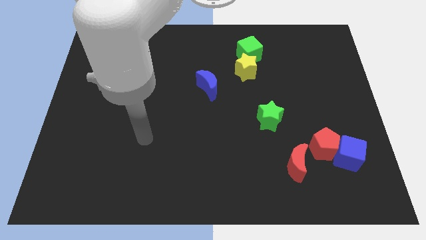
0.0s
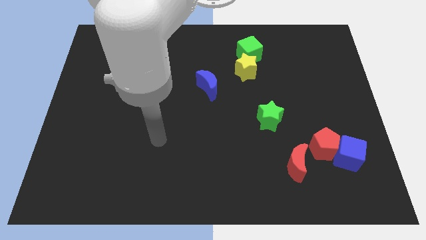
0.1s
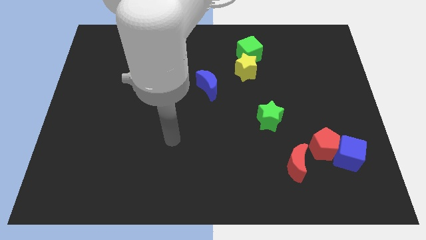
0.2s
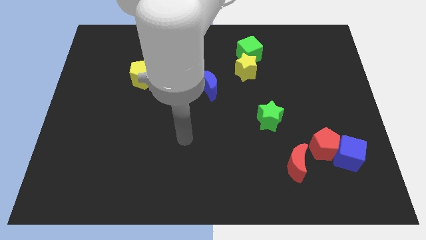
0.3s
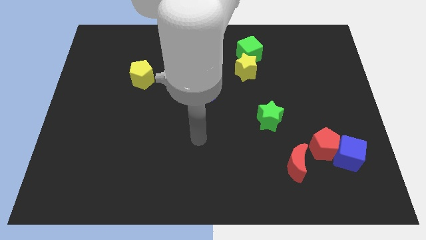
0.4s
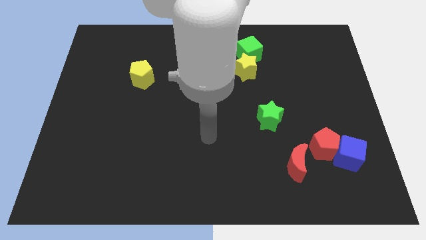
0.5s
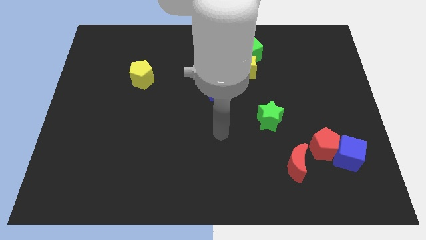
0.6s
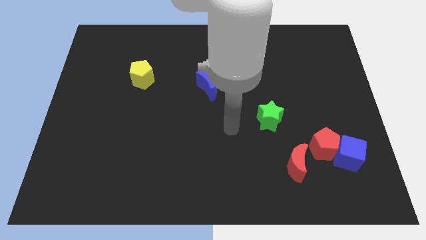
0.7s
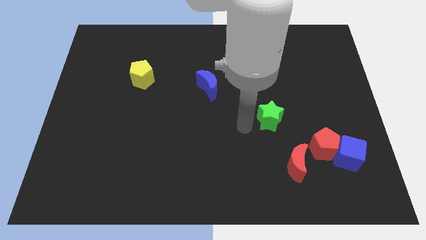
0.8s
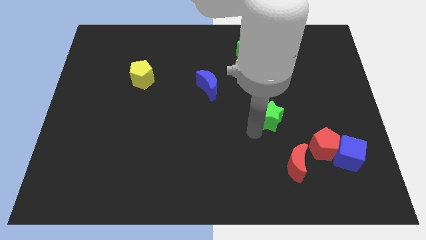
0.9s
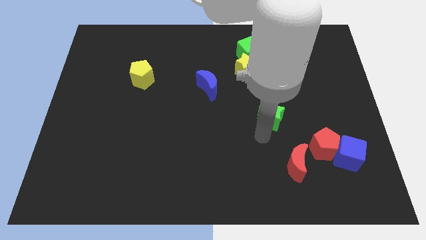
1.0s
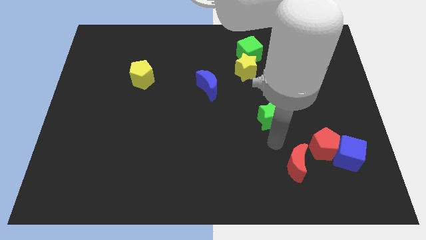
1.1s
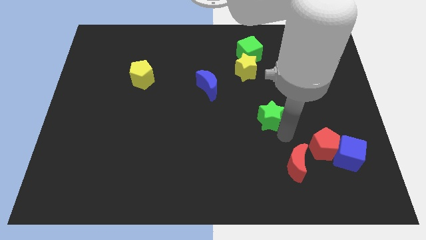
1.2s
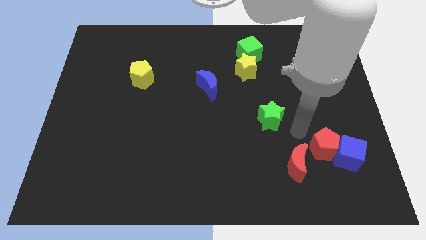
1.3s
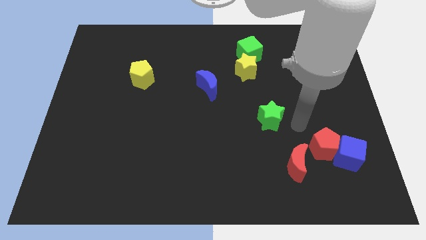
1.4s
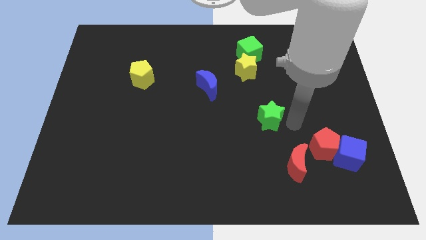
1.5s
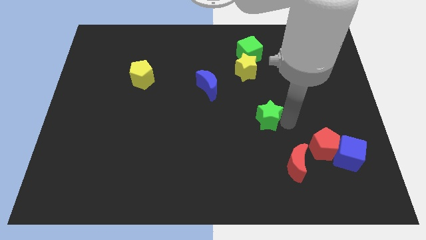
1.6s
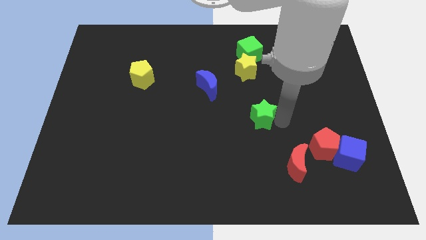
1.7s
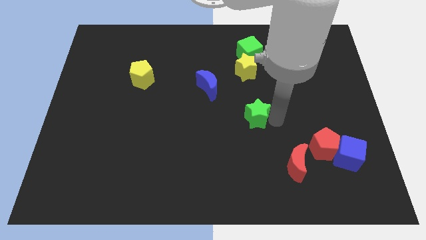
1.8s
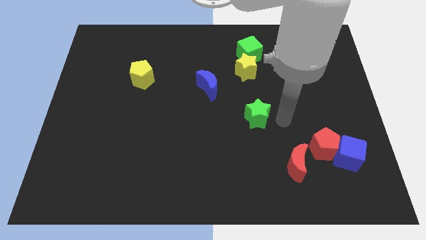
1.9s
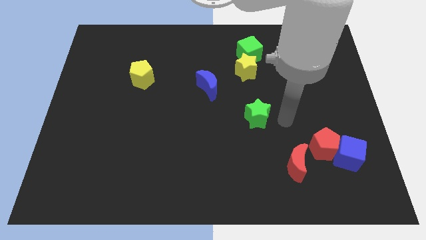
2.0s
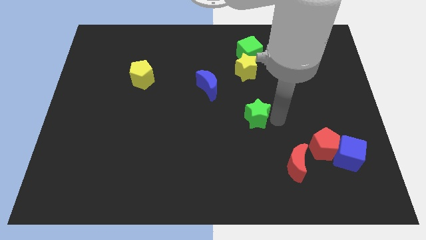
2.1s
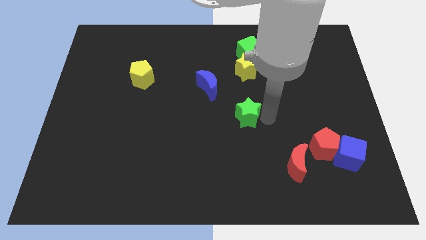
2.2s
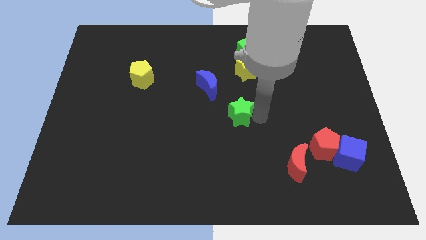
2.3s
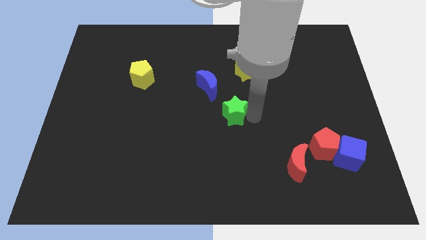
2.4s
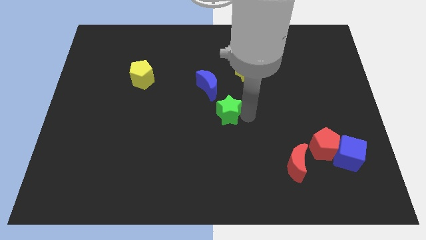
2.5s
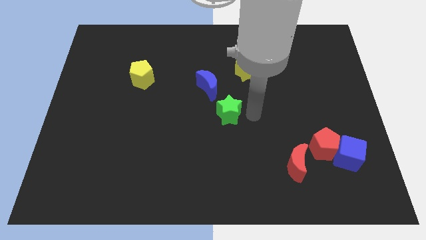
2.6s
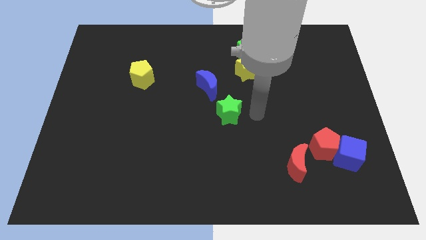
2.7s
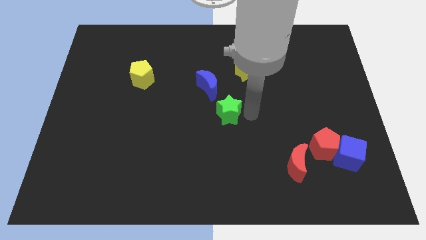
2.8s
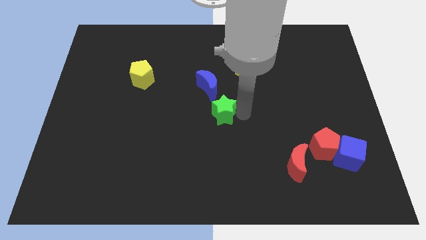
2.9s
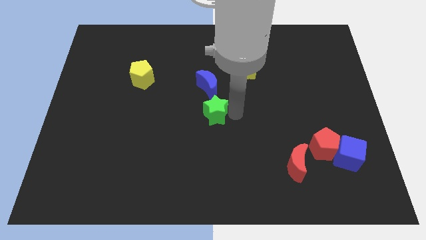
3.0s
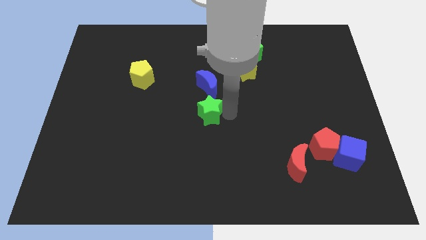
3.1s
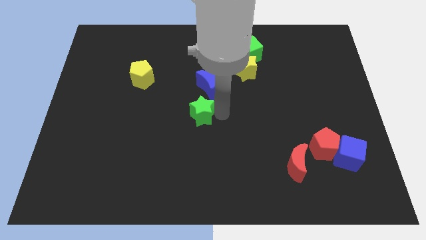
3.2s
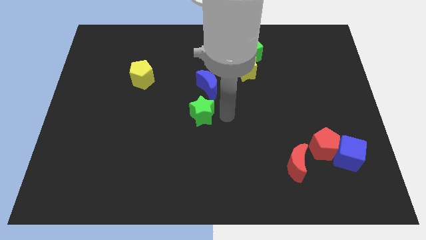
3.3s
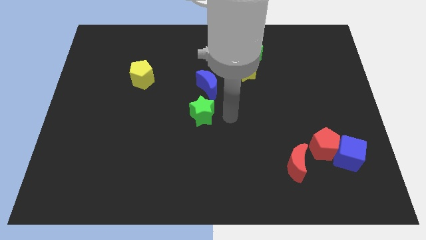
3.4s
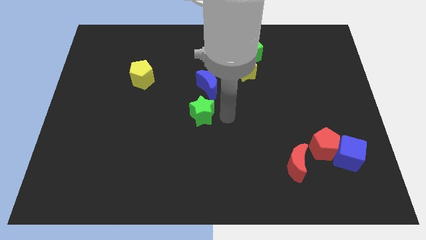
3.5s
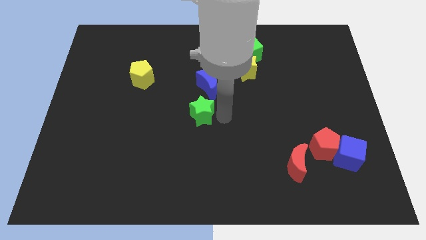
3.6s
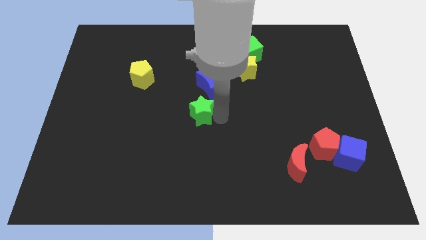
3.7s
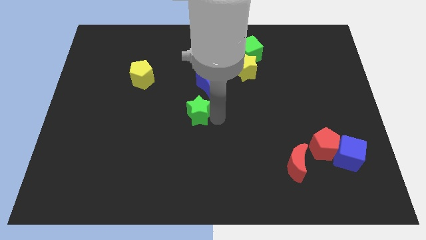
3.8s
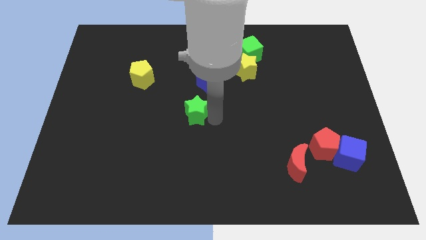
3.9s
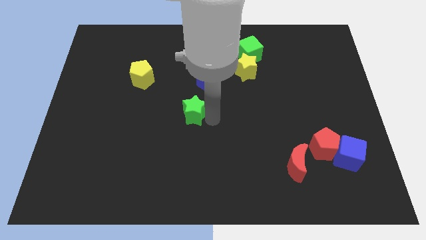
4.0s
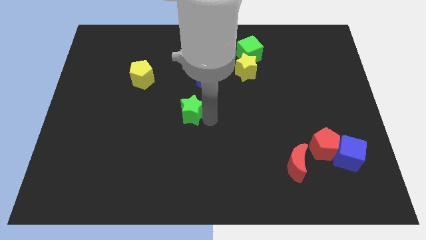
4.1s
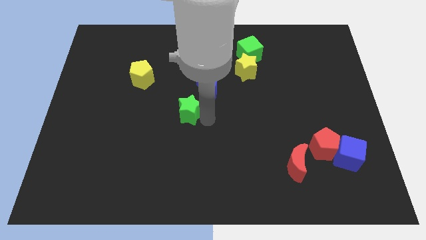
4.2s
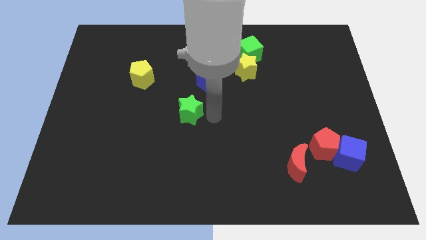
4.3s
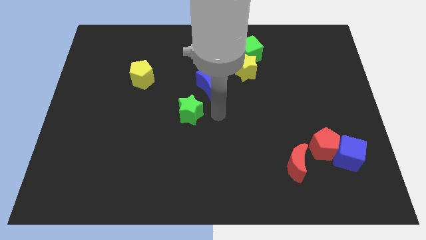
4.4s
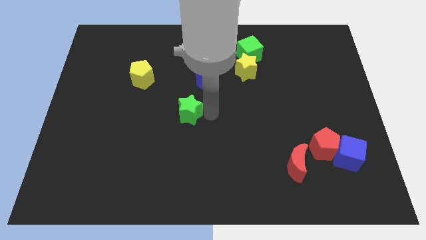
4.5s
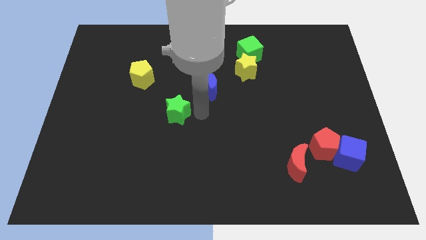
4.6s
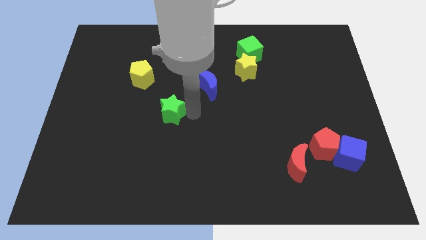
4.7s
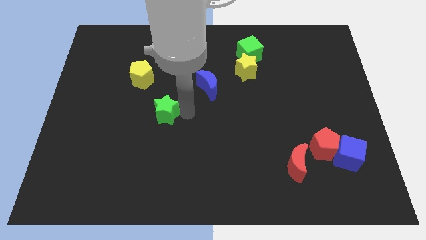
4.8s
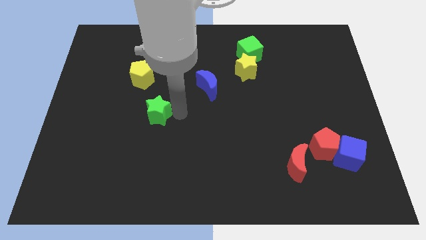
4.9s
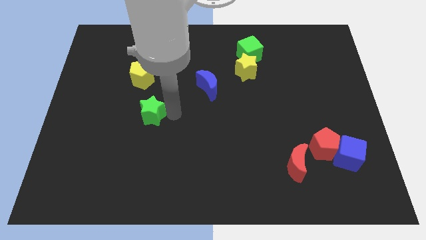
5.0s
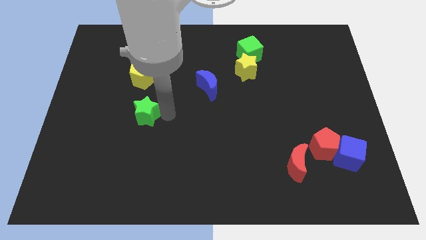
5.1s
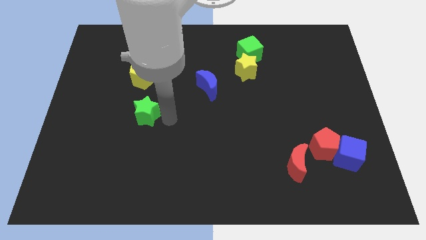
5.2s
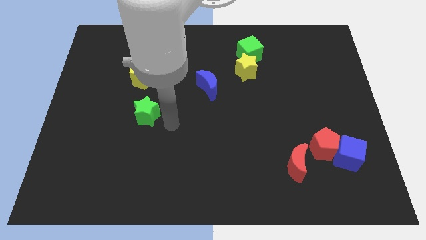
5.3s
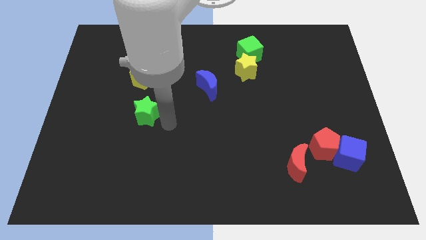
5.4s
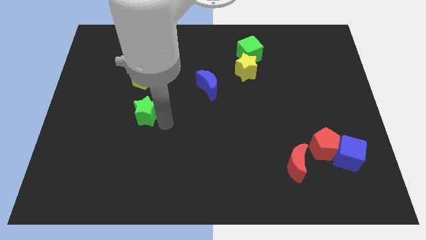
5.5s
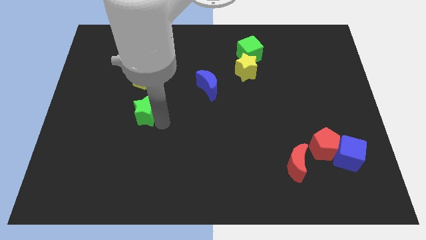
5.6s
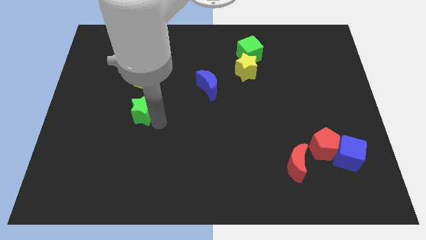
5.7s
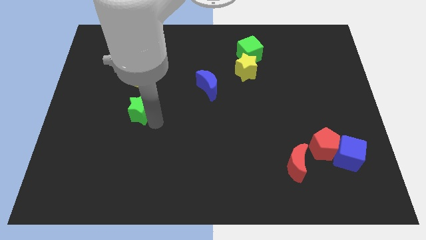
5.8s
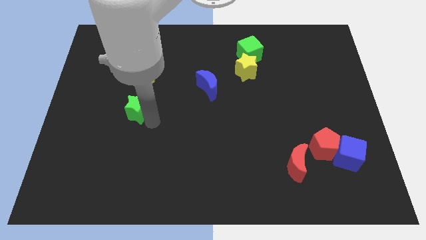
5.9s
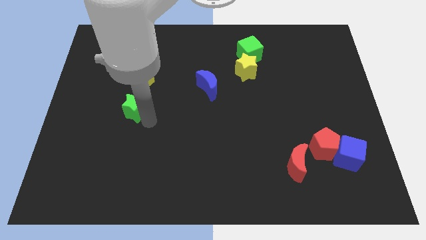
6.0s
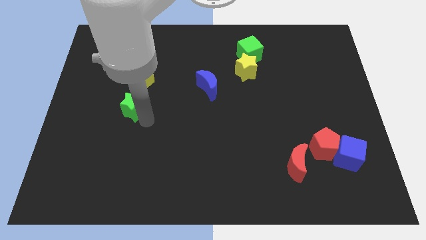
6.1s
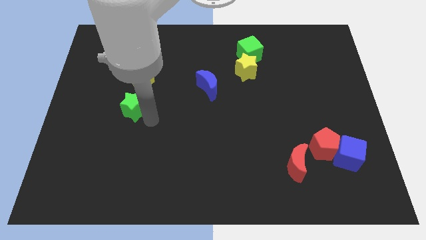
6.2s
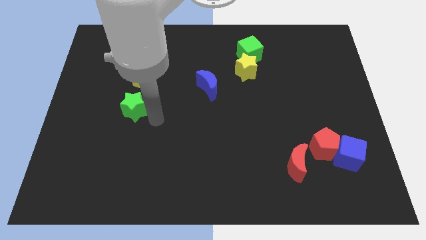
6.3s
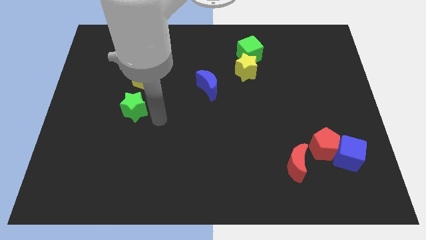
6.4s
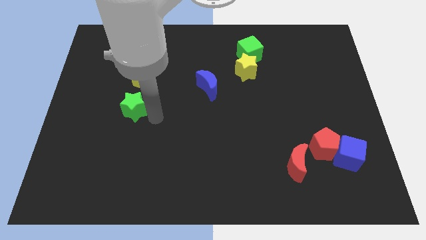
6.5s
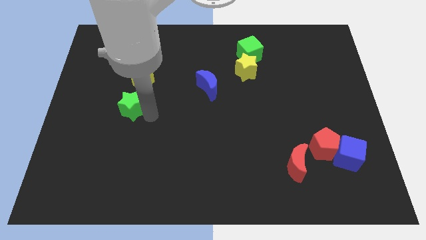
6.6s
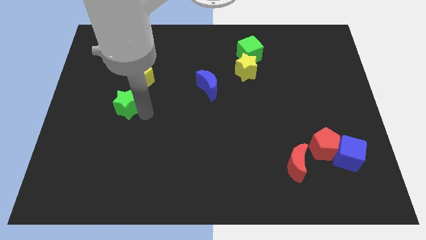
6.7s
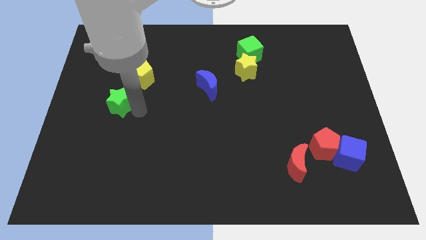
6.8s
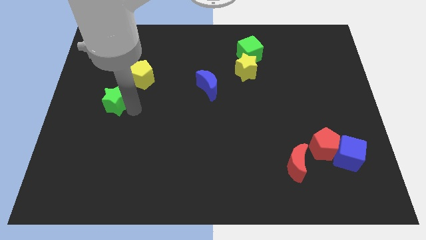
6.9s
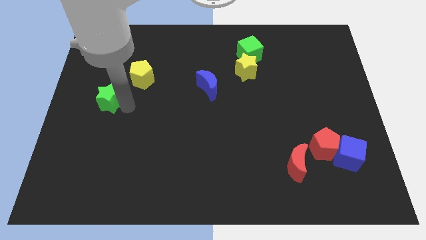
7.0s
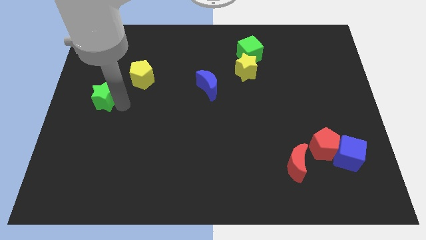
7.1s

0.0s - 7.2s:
slide the green star to the center left
